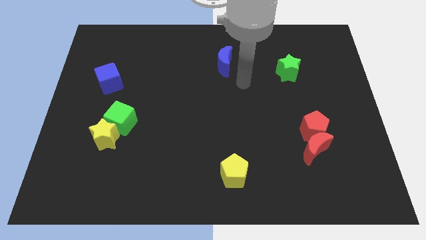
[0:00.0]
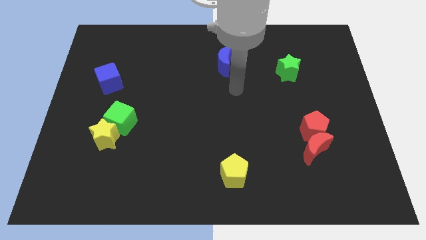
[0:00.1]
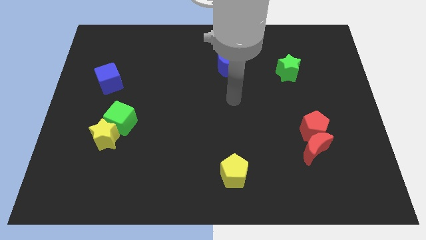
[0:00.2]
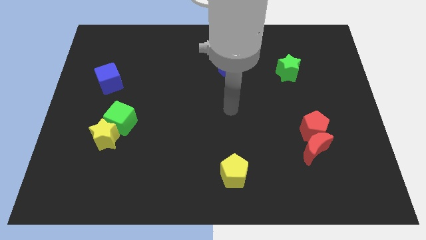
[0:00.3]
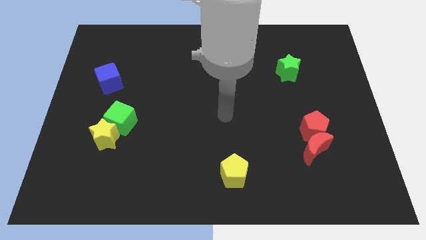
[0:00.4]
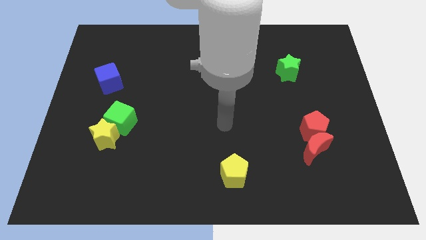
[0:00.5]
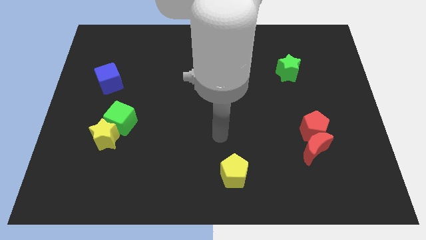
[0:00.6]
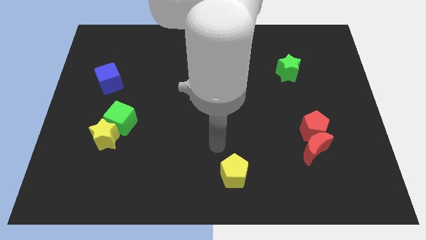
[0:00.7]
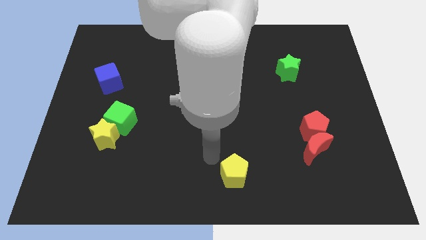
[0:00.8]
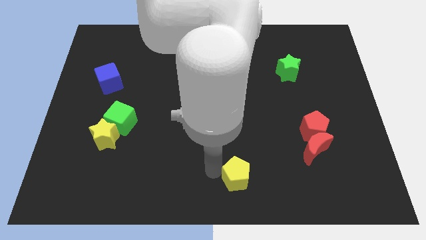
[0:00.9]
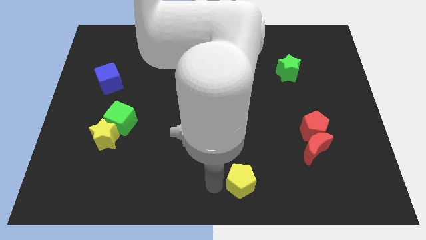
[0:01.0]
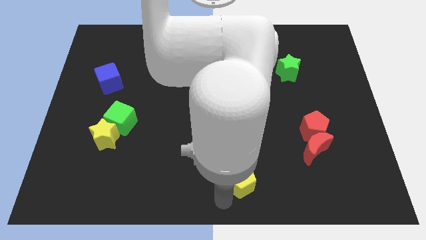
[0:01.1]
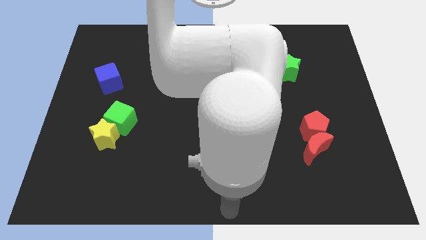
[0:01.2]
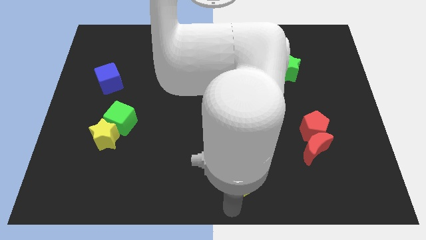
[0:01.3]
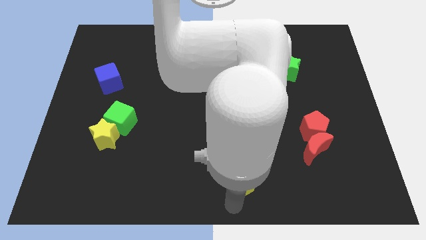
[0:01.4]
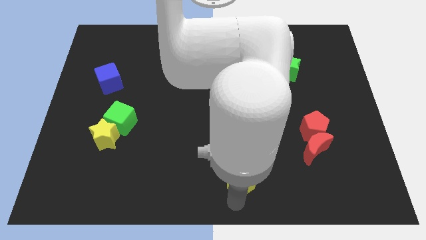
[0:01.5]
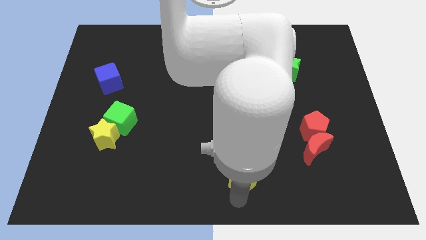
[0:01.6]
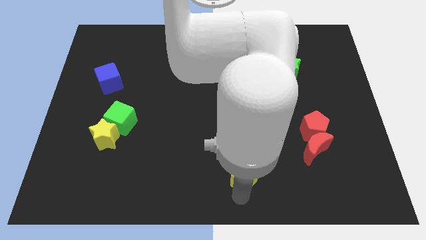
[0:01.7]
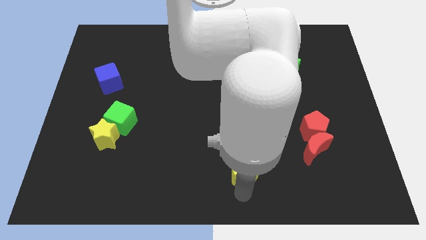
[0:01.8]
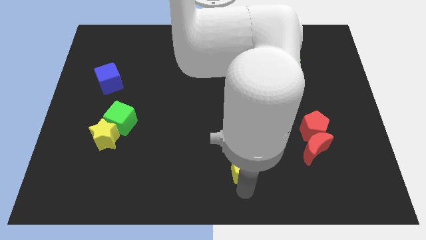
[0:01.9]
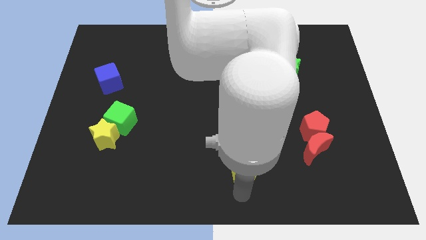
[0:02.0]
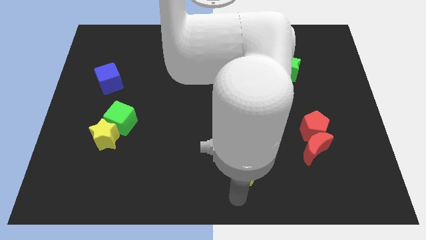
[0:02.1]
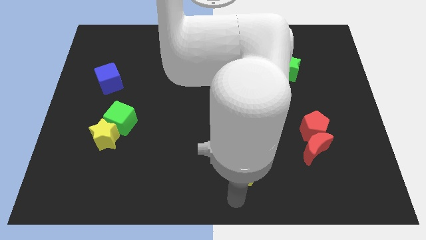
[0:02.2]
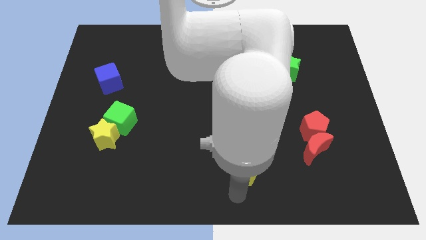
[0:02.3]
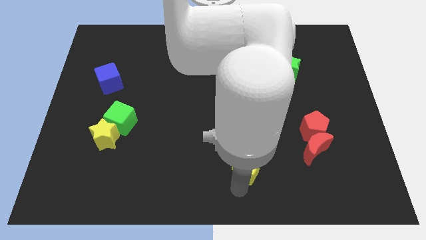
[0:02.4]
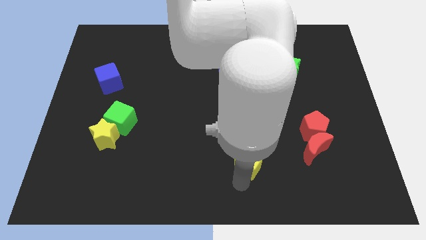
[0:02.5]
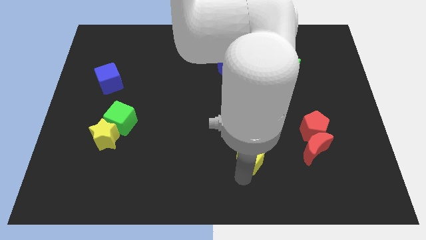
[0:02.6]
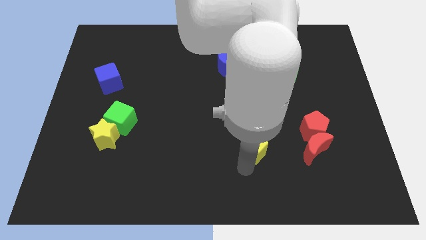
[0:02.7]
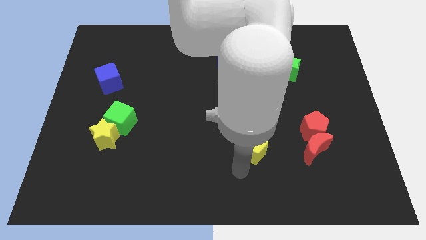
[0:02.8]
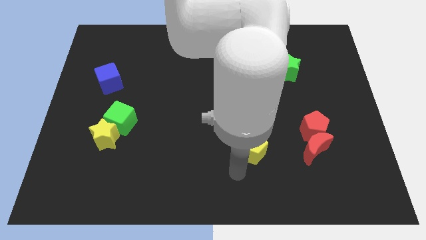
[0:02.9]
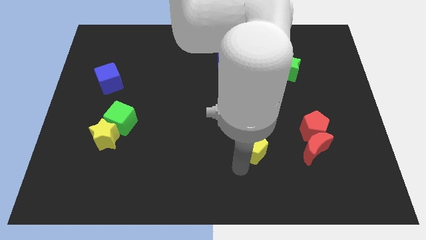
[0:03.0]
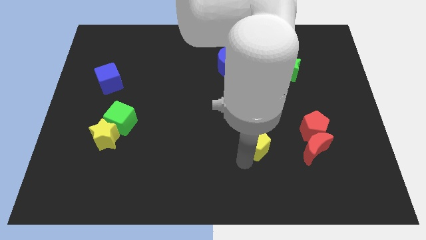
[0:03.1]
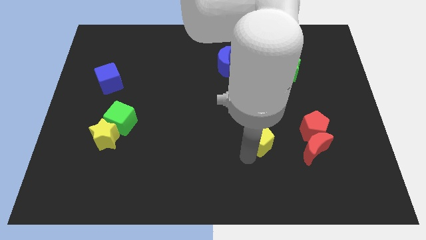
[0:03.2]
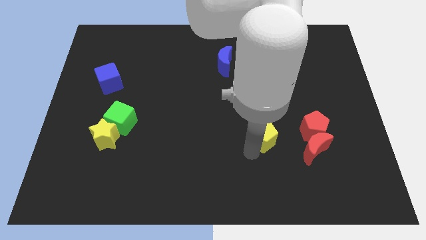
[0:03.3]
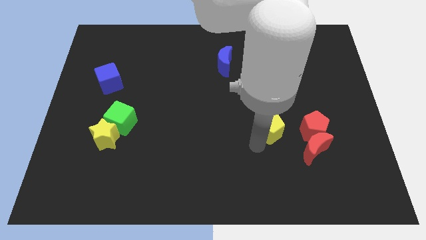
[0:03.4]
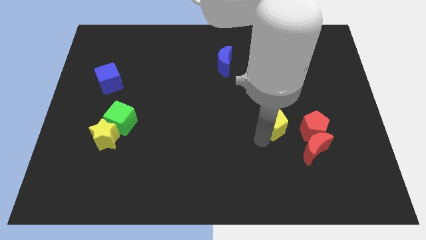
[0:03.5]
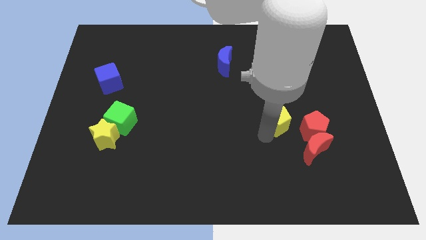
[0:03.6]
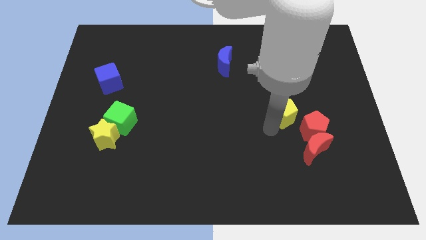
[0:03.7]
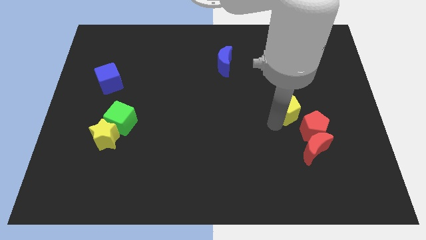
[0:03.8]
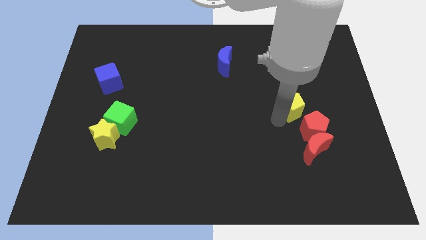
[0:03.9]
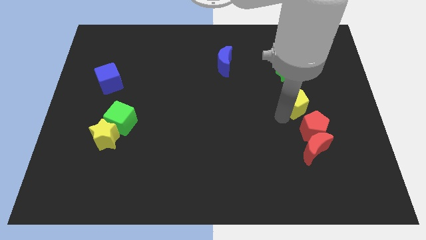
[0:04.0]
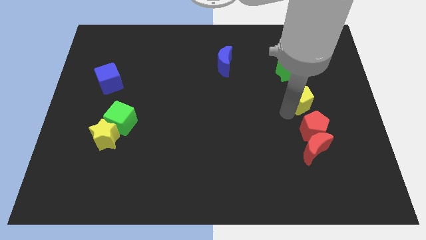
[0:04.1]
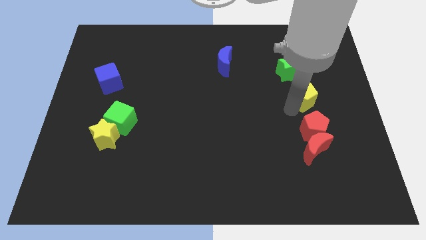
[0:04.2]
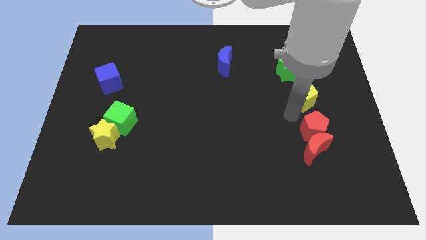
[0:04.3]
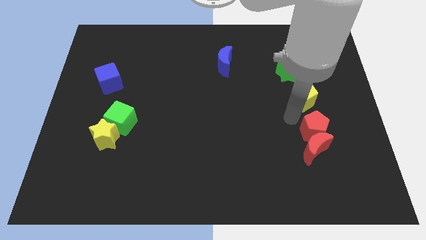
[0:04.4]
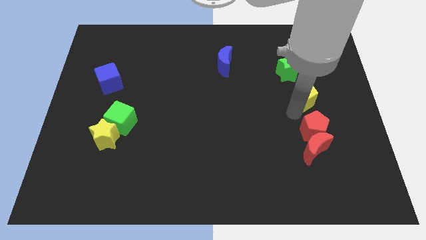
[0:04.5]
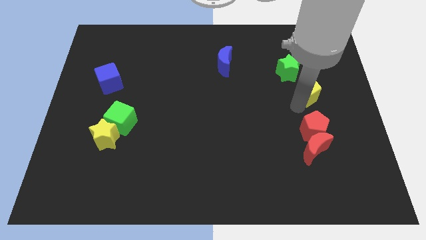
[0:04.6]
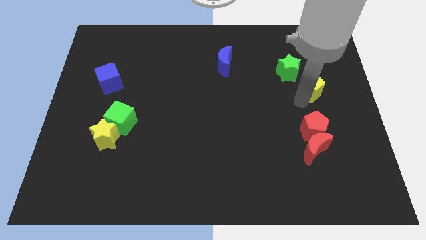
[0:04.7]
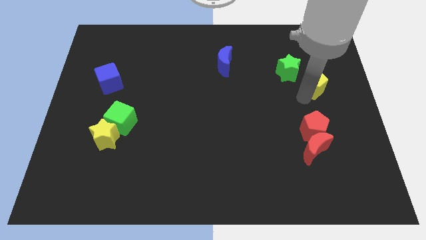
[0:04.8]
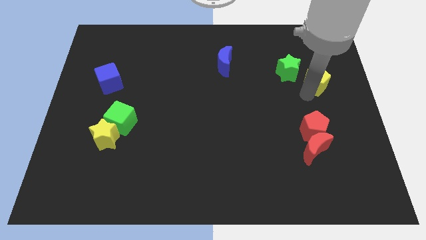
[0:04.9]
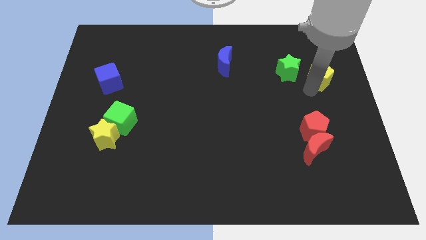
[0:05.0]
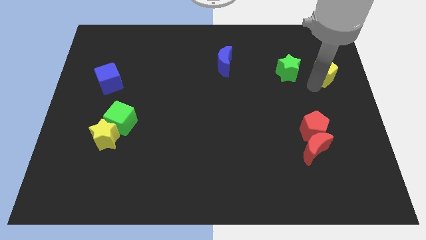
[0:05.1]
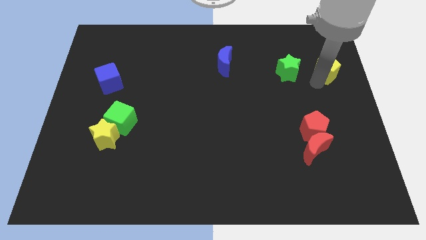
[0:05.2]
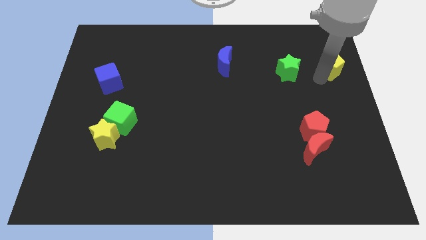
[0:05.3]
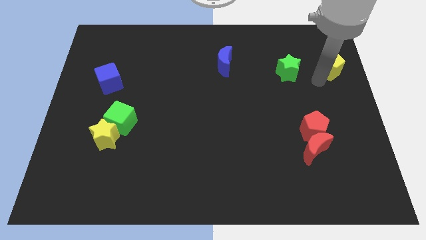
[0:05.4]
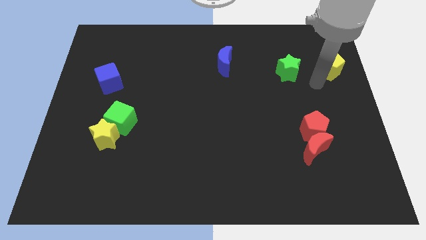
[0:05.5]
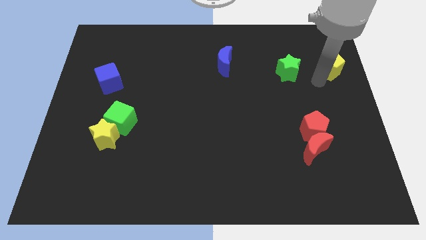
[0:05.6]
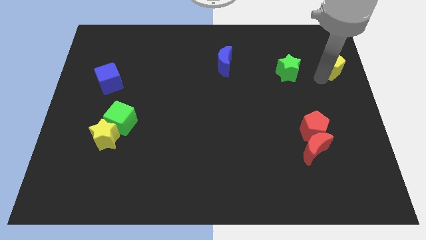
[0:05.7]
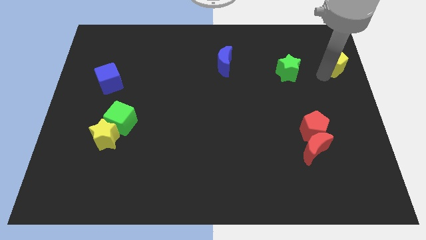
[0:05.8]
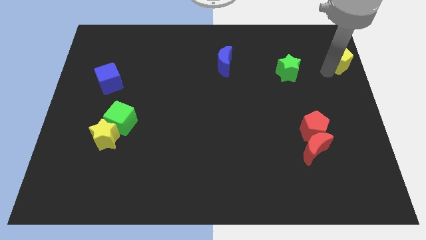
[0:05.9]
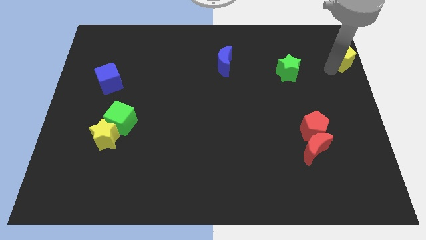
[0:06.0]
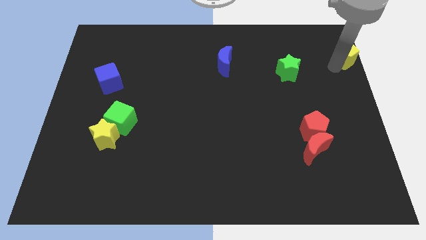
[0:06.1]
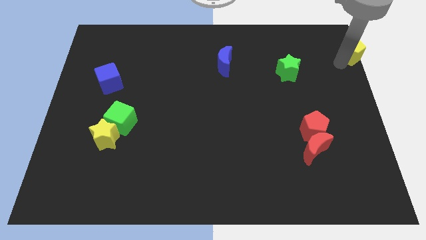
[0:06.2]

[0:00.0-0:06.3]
slide the yellow pentagon to the top right corner
